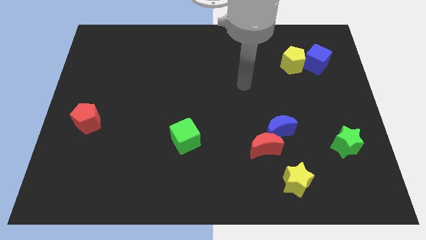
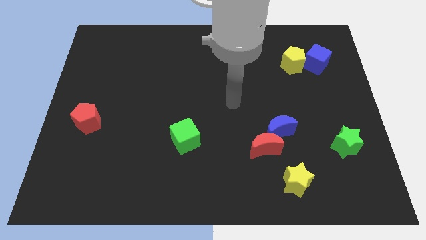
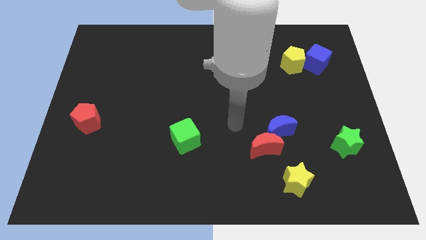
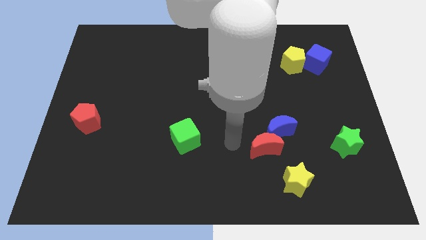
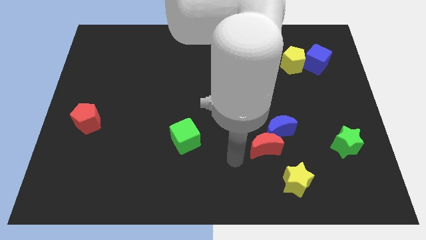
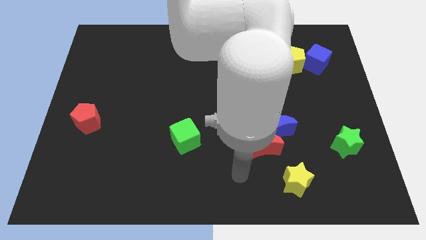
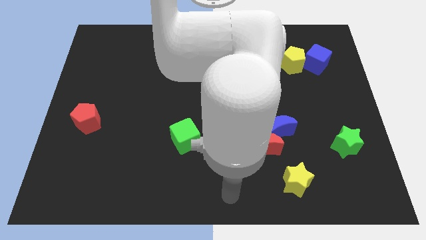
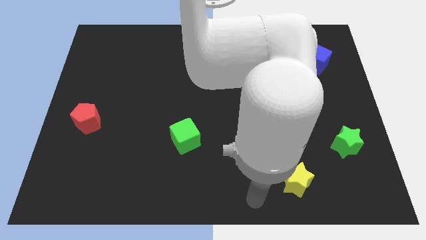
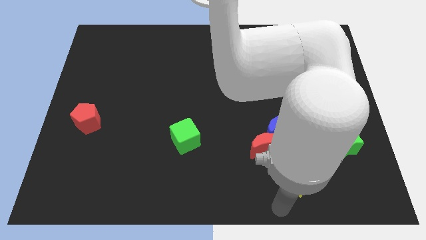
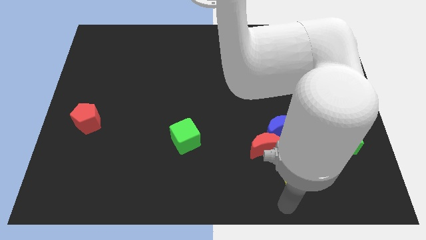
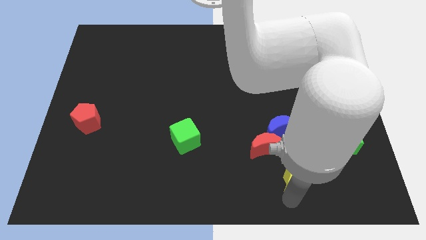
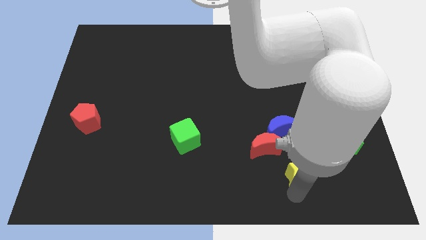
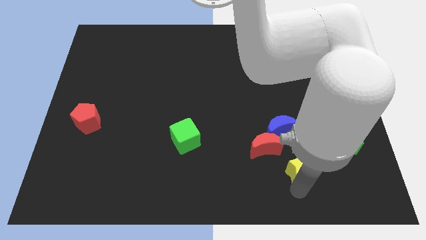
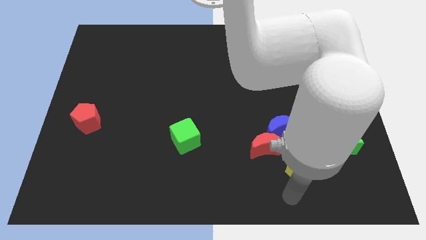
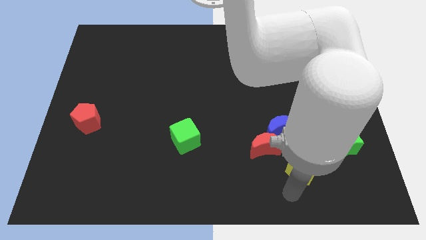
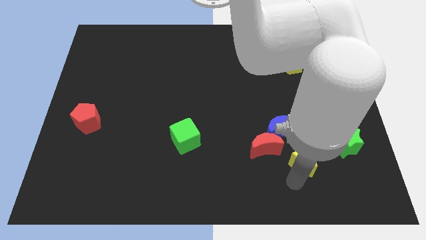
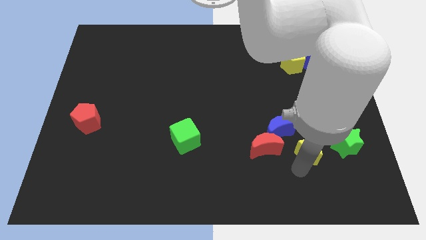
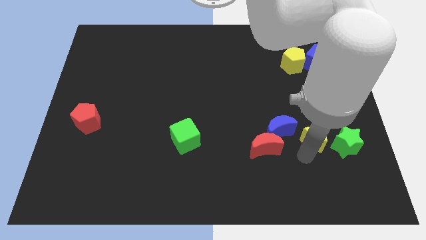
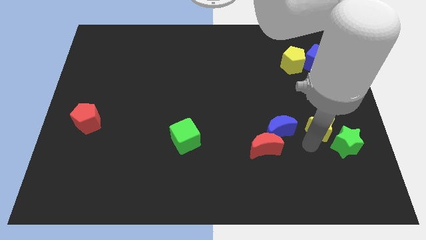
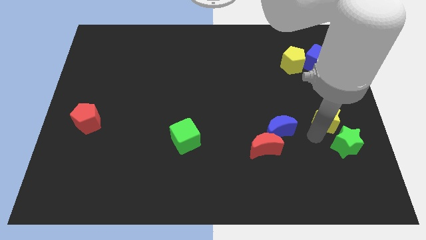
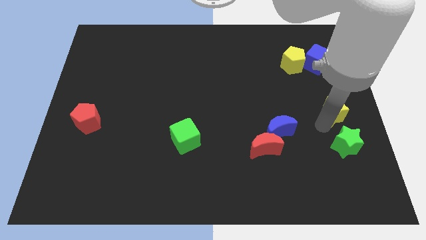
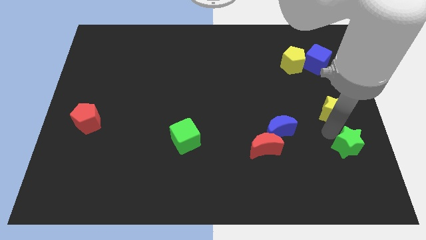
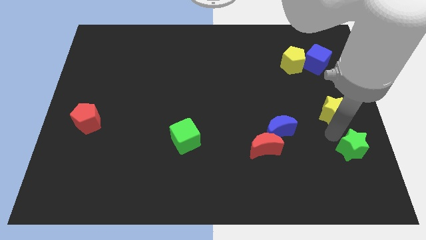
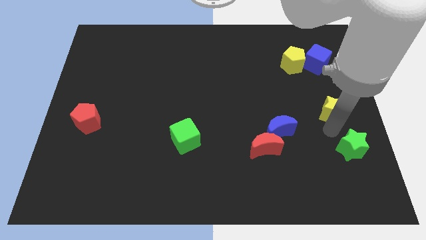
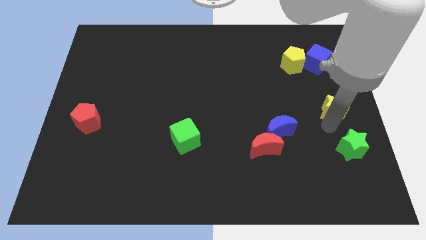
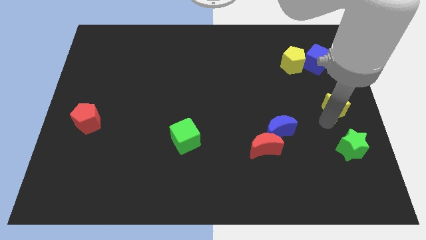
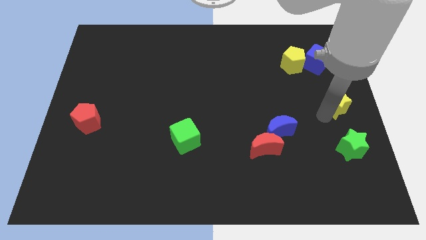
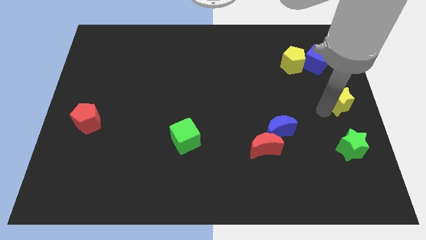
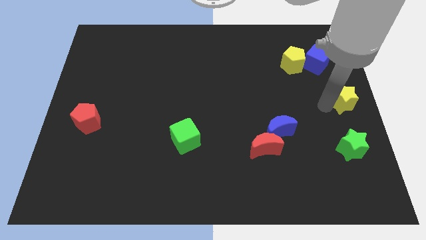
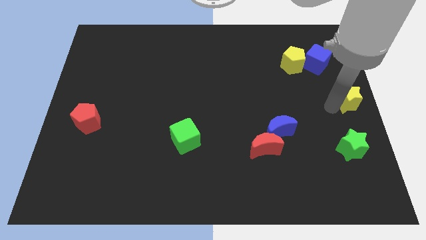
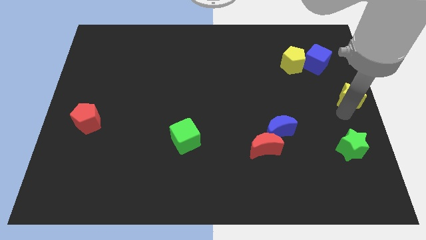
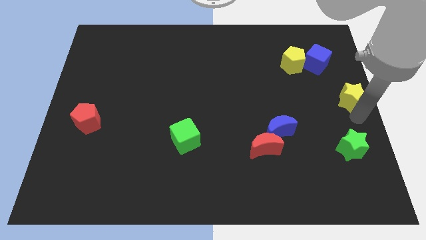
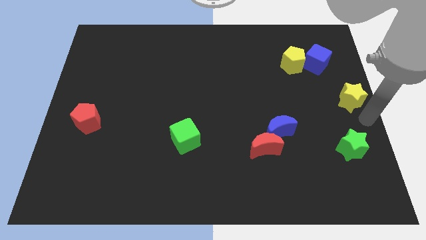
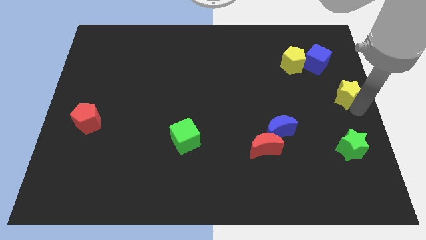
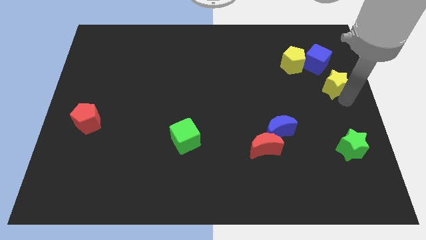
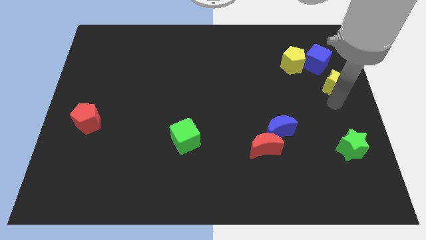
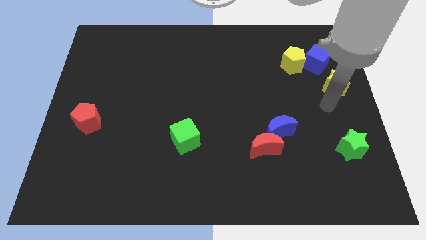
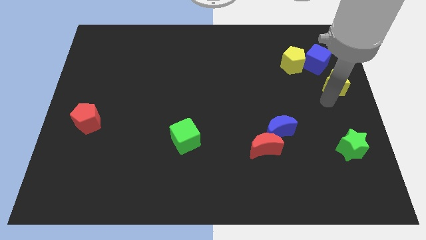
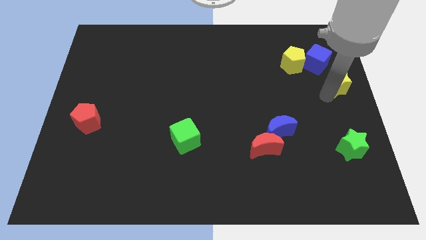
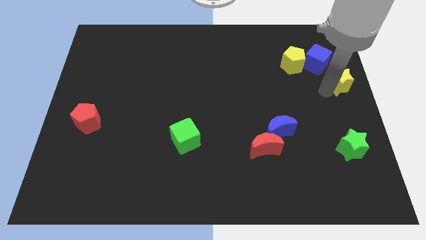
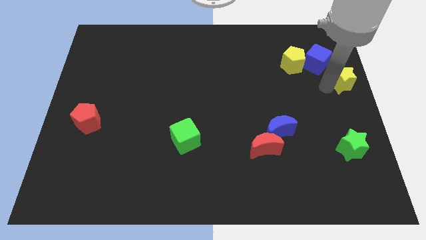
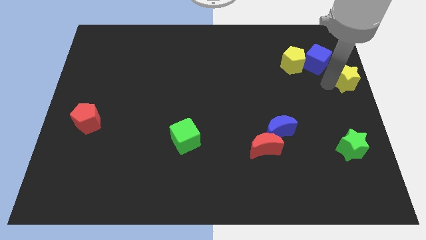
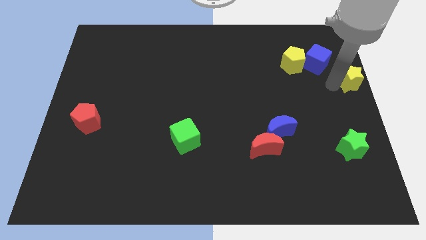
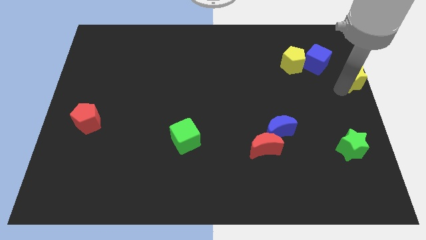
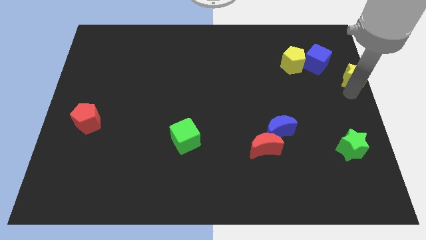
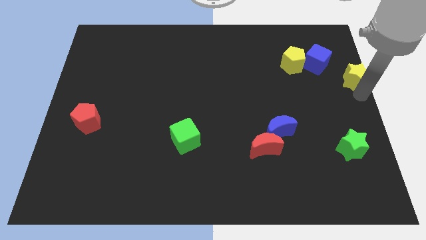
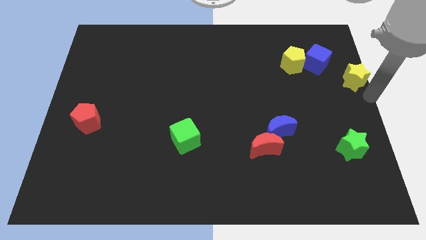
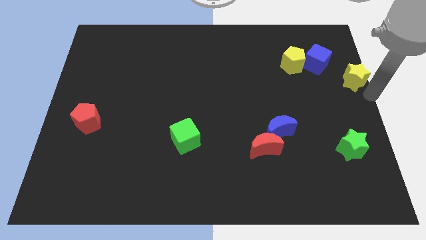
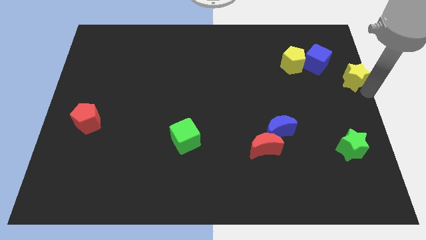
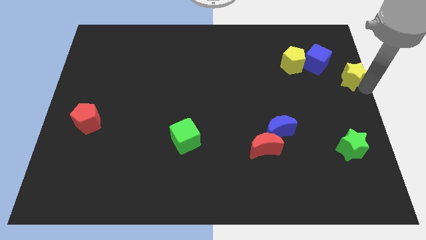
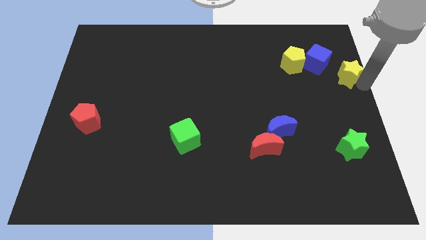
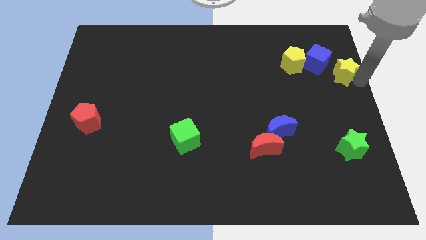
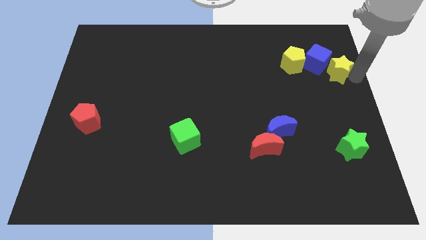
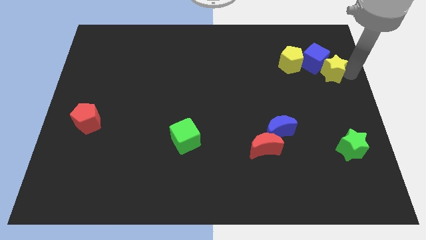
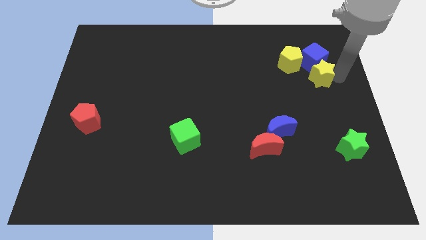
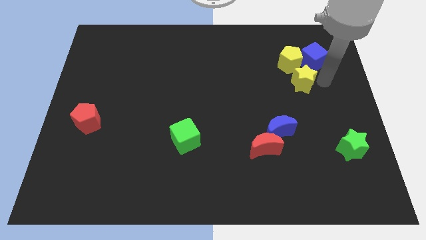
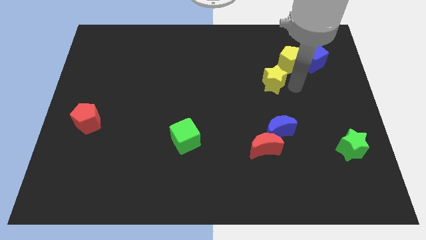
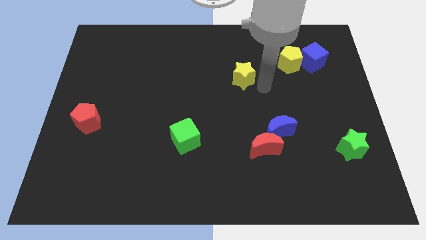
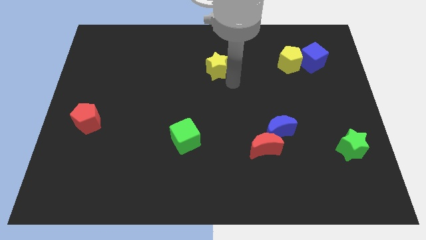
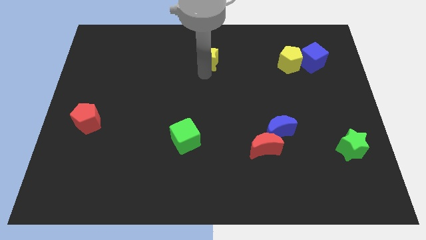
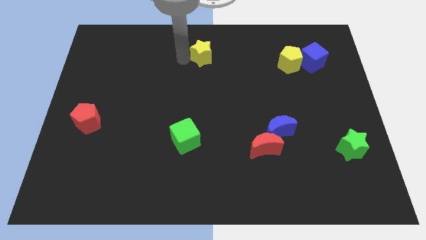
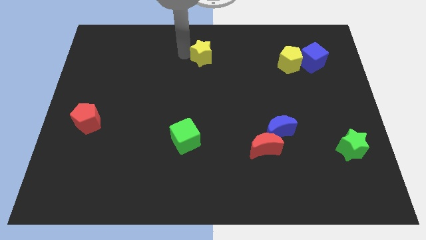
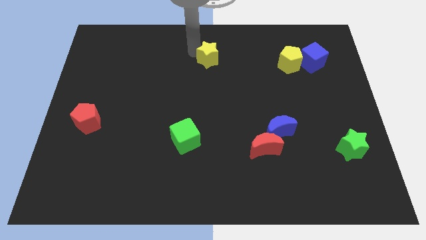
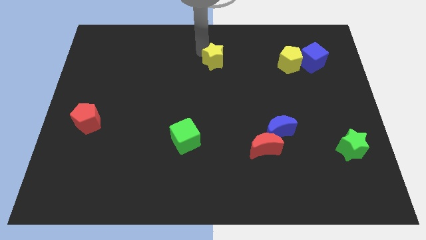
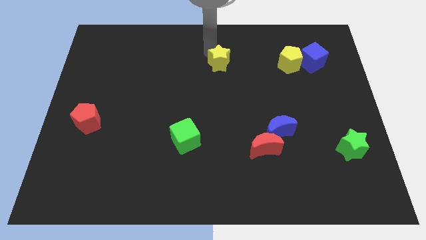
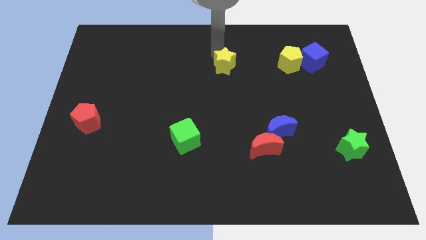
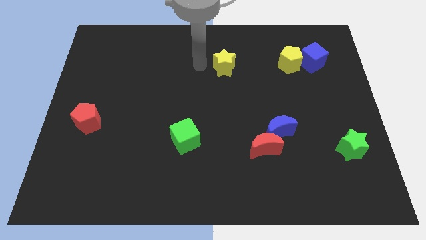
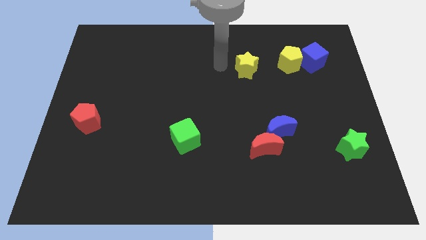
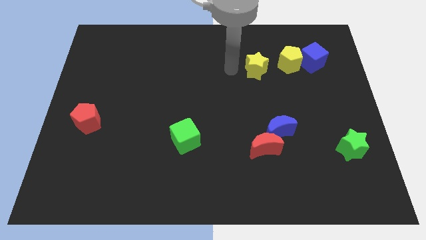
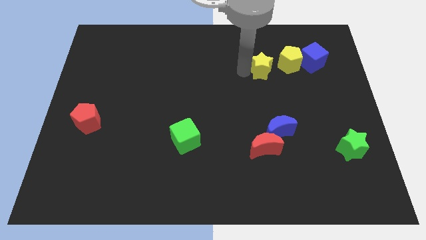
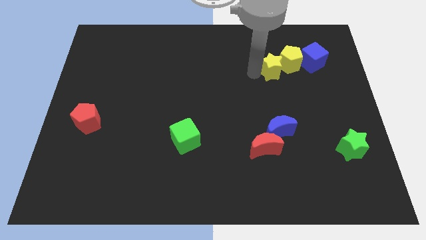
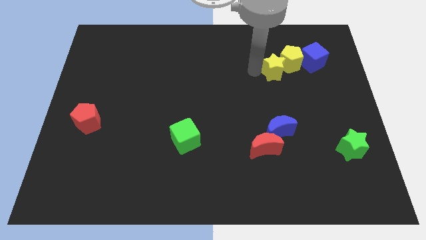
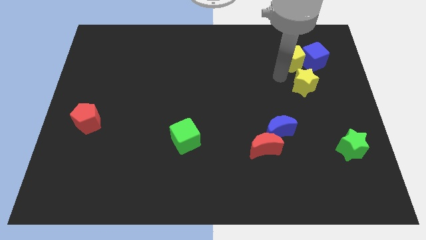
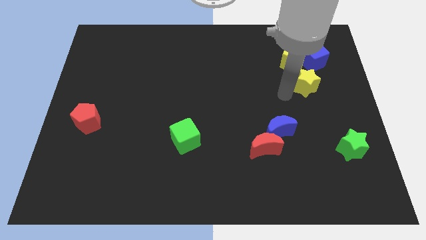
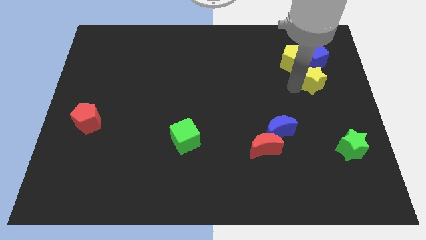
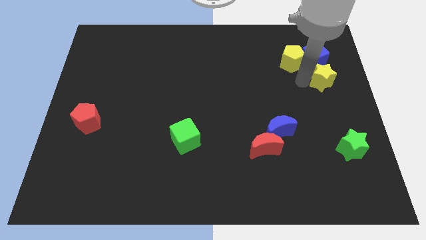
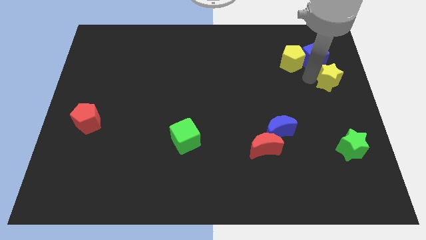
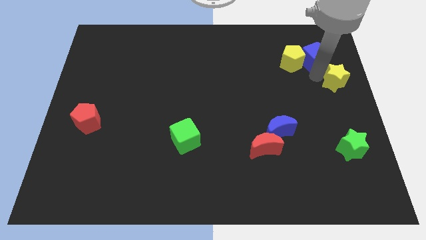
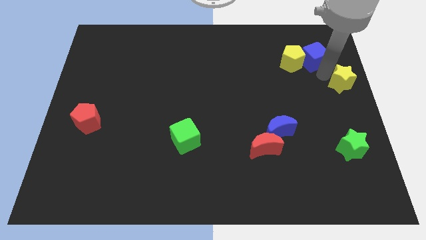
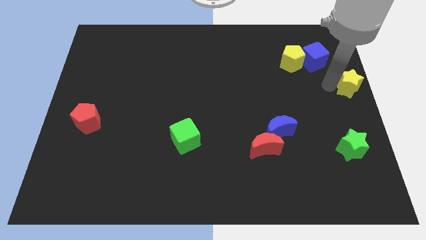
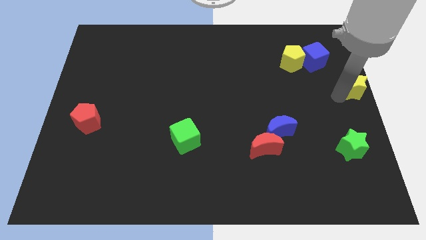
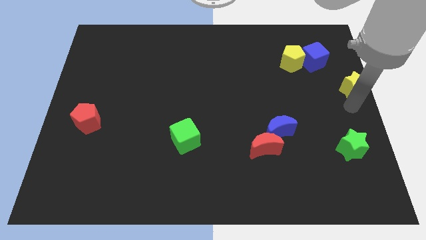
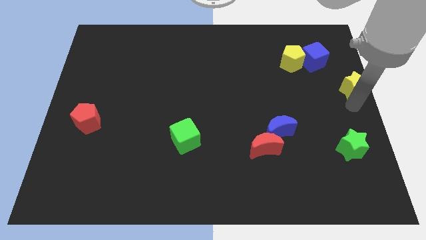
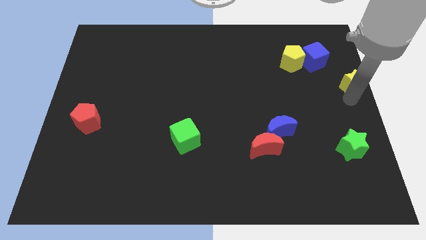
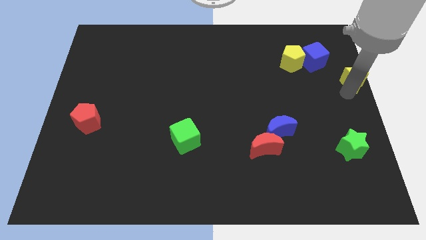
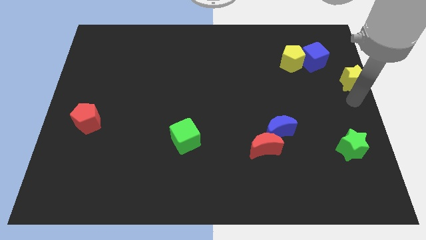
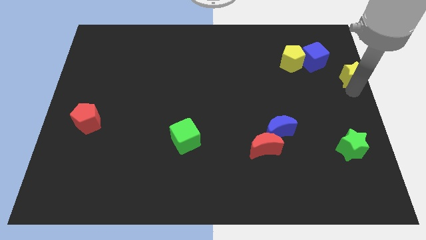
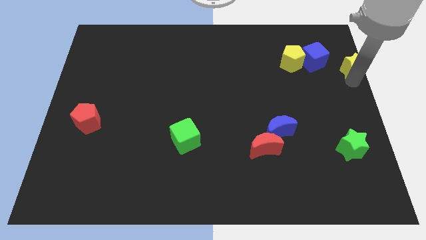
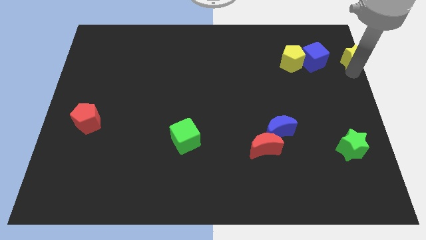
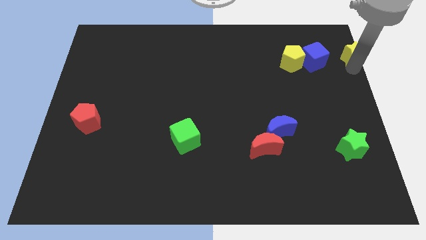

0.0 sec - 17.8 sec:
move the yellow star to the top right
